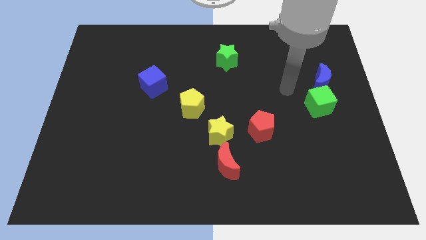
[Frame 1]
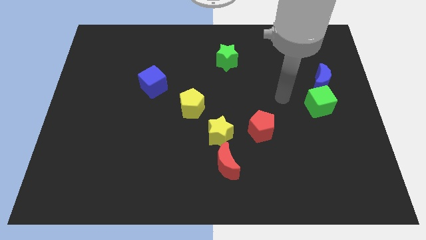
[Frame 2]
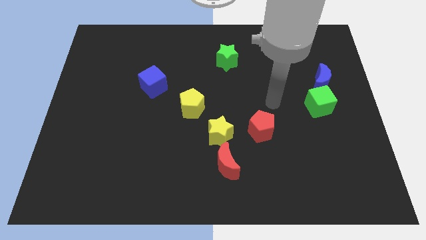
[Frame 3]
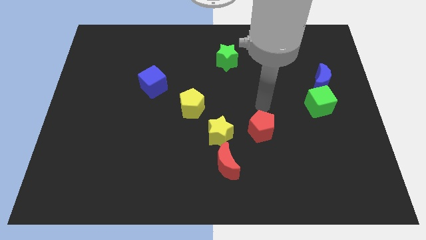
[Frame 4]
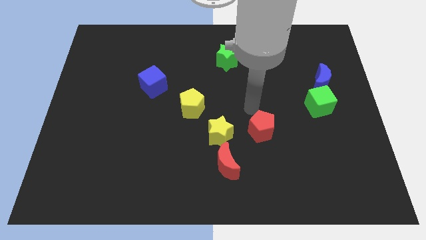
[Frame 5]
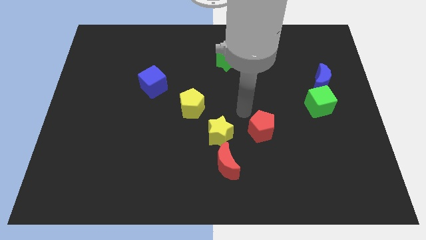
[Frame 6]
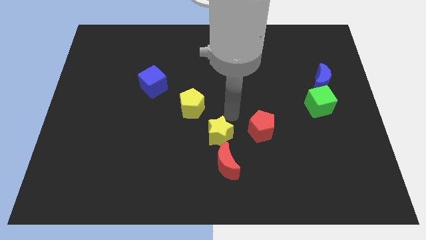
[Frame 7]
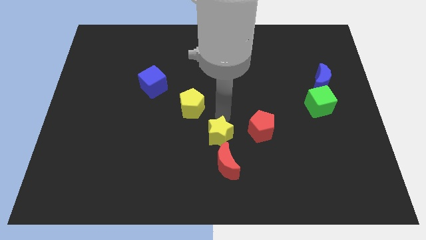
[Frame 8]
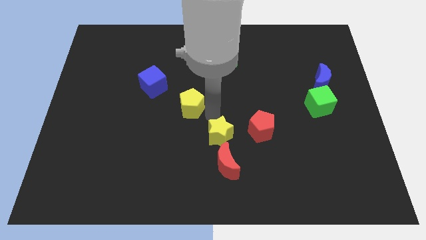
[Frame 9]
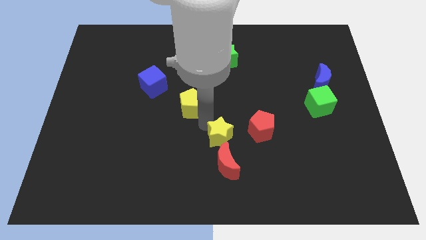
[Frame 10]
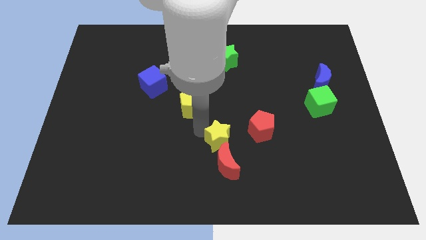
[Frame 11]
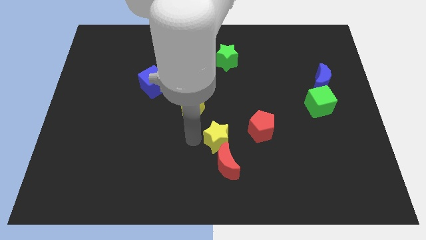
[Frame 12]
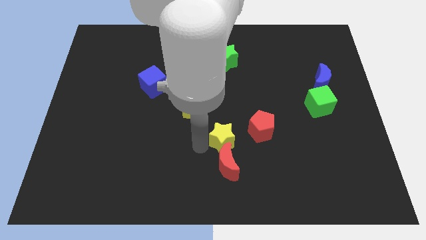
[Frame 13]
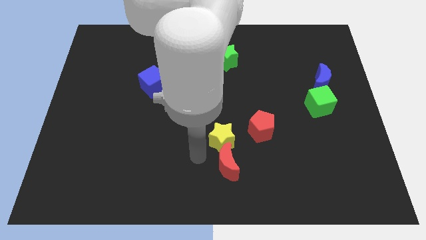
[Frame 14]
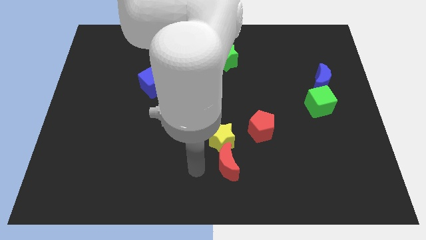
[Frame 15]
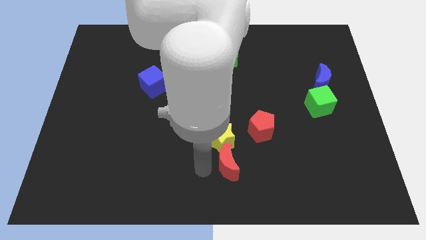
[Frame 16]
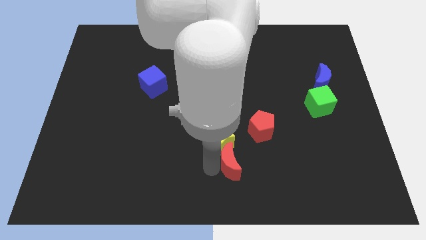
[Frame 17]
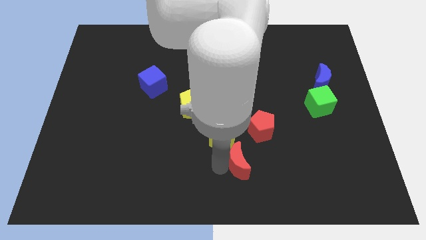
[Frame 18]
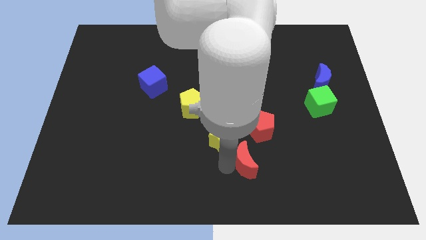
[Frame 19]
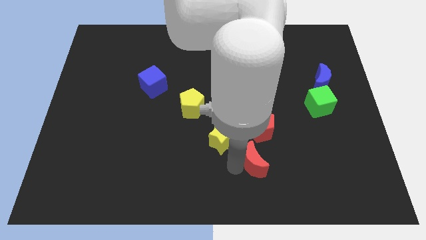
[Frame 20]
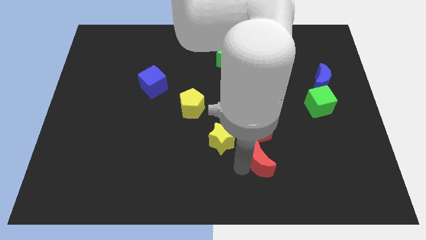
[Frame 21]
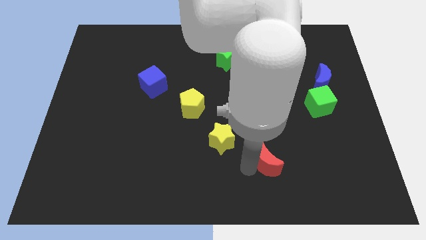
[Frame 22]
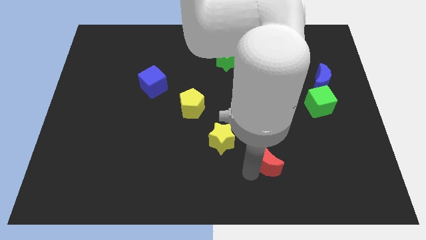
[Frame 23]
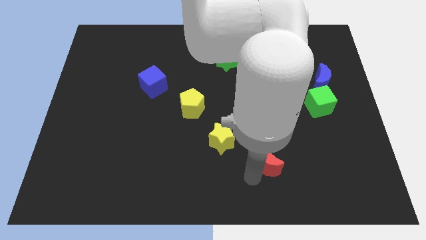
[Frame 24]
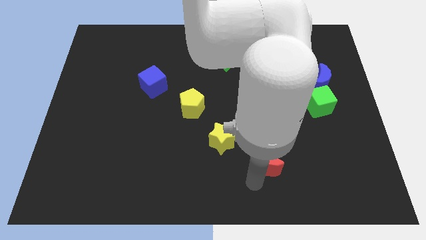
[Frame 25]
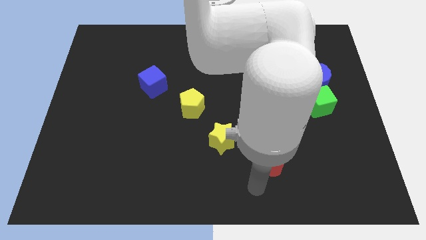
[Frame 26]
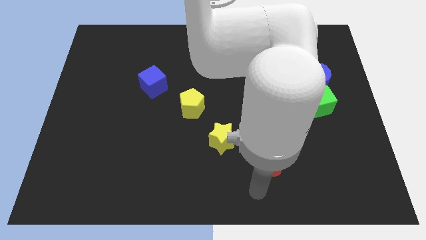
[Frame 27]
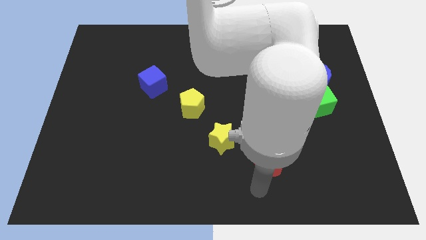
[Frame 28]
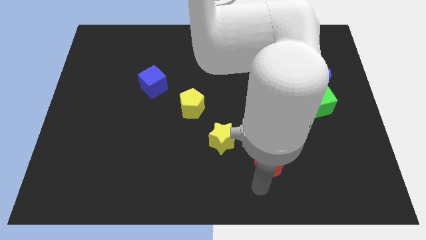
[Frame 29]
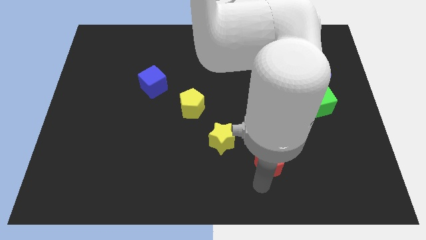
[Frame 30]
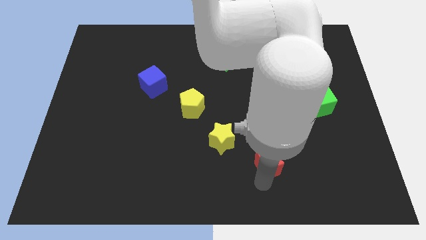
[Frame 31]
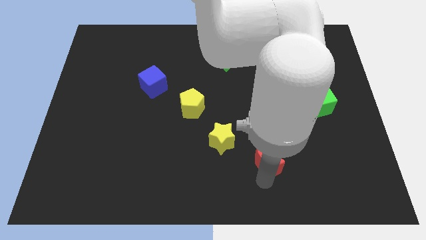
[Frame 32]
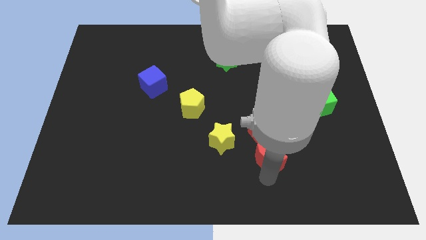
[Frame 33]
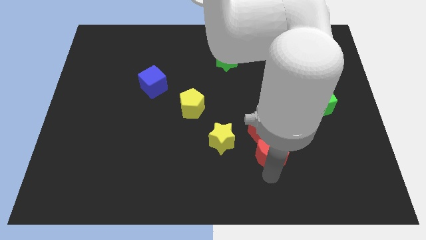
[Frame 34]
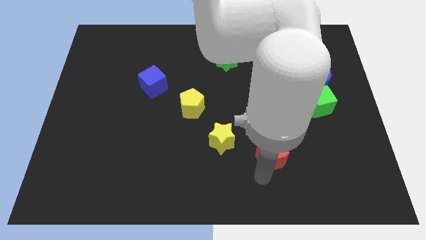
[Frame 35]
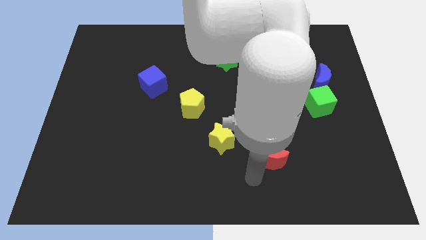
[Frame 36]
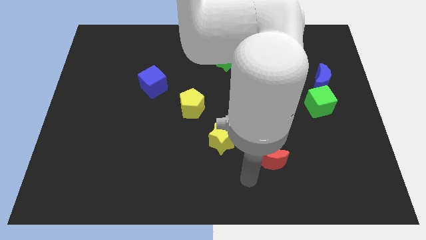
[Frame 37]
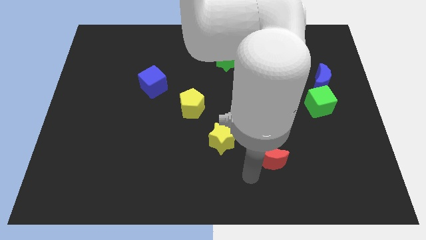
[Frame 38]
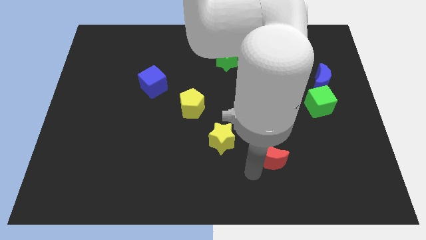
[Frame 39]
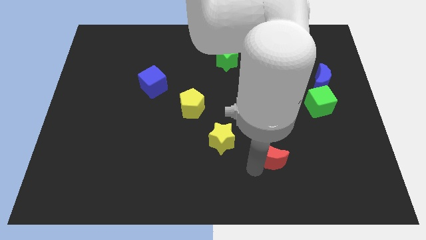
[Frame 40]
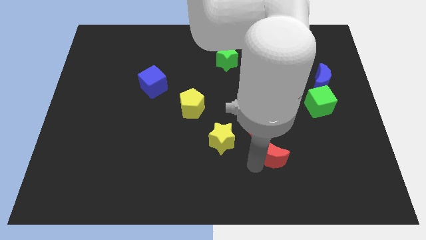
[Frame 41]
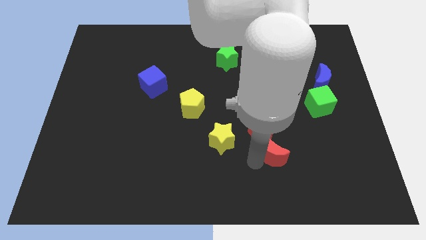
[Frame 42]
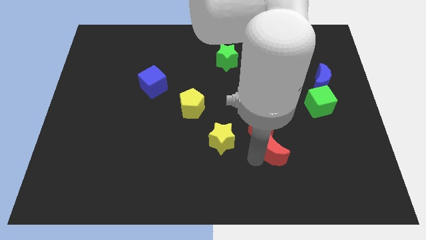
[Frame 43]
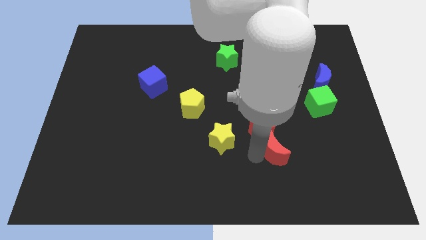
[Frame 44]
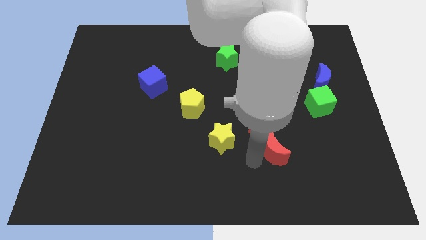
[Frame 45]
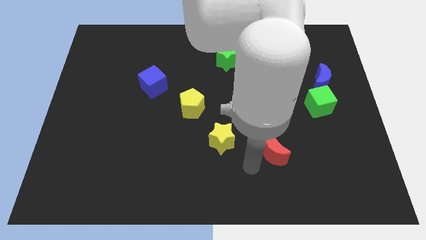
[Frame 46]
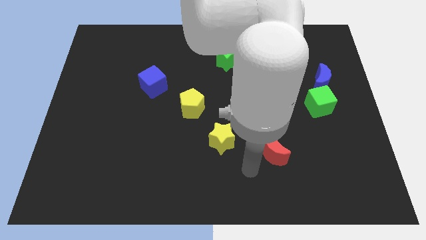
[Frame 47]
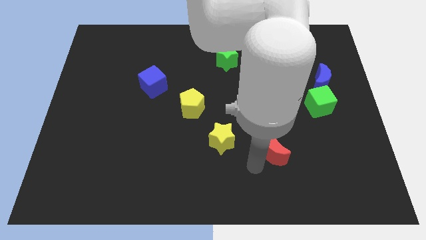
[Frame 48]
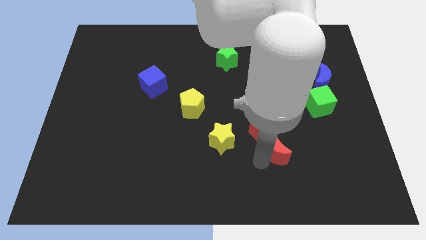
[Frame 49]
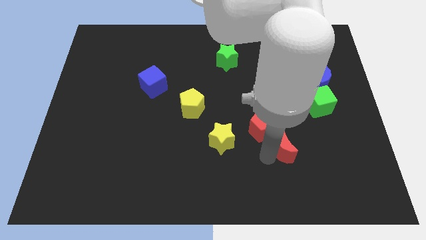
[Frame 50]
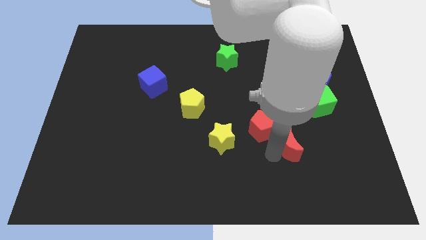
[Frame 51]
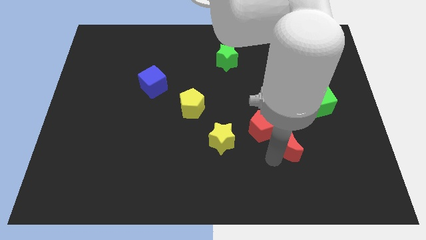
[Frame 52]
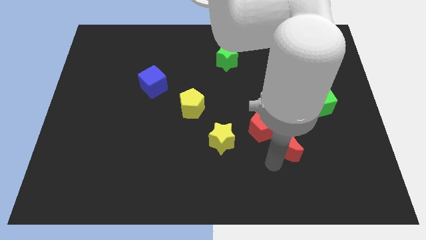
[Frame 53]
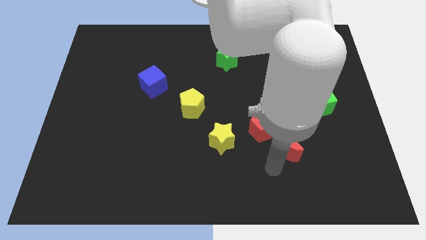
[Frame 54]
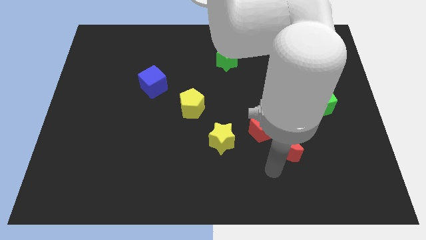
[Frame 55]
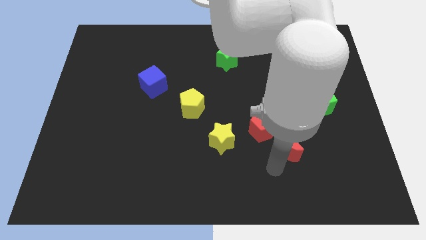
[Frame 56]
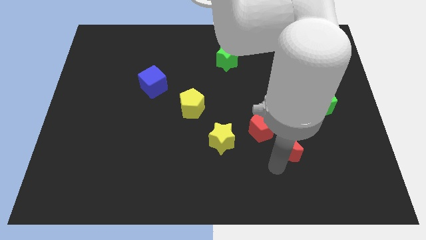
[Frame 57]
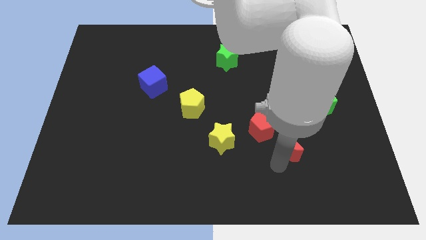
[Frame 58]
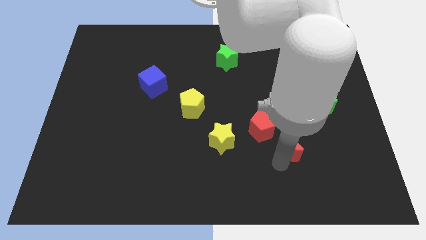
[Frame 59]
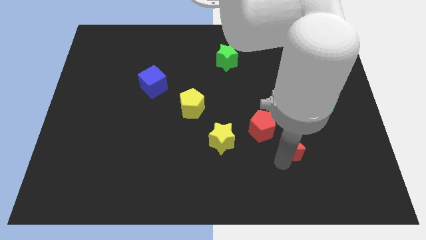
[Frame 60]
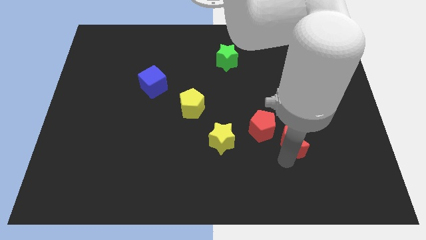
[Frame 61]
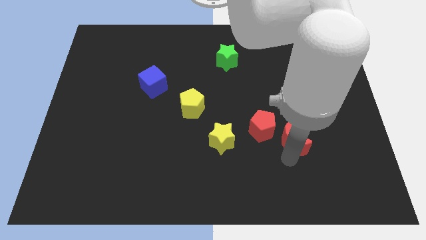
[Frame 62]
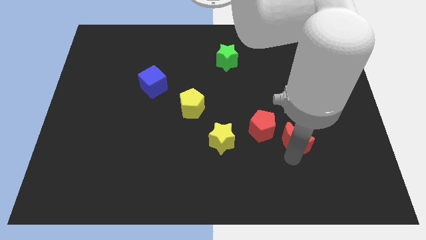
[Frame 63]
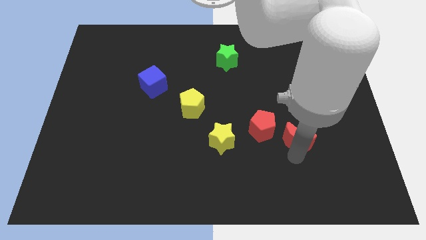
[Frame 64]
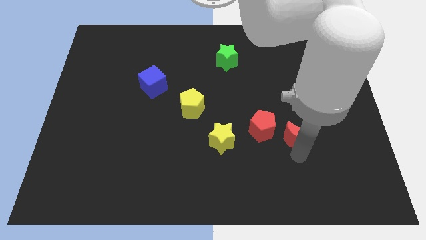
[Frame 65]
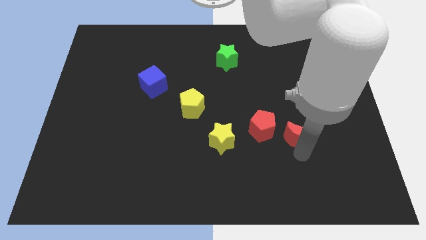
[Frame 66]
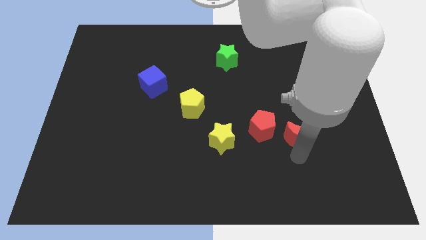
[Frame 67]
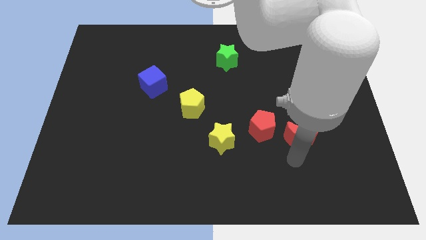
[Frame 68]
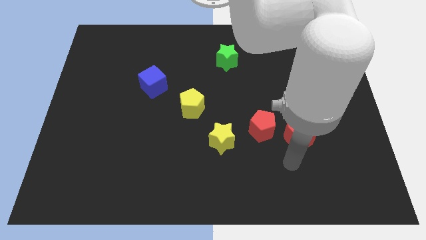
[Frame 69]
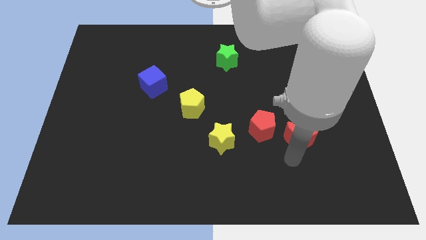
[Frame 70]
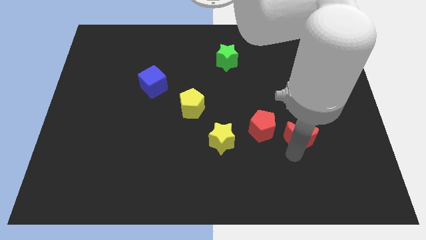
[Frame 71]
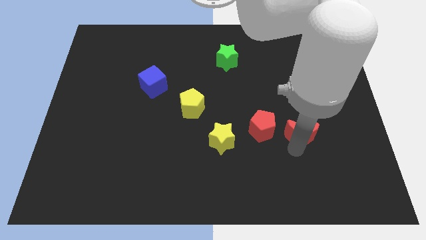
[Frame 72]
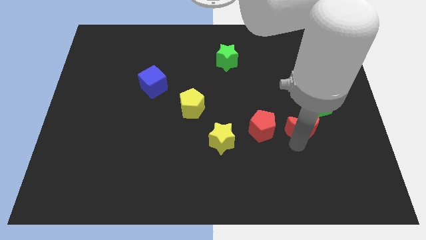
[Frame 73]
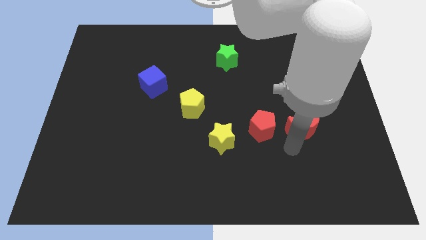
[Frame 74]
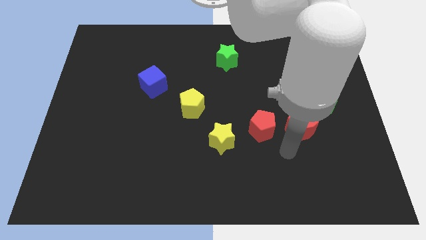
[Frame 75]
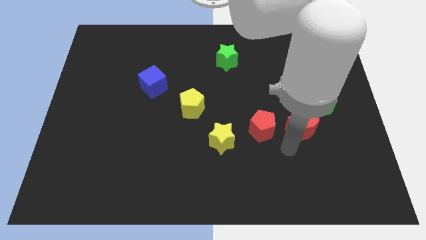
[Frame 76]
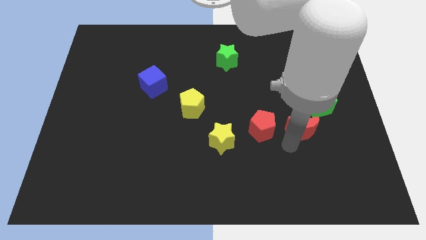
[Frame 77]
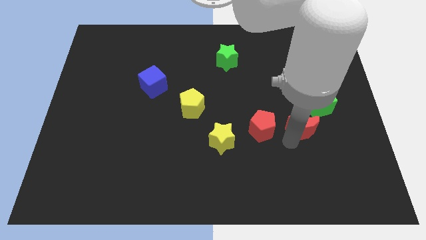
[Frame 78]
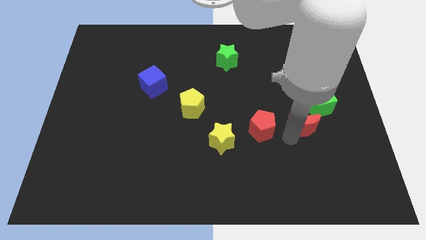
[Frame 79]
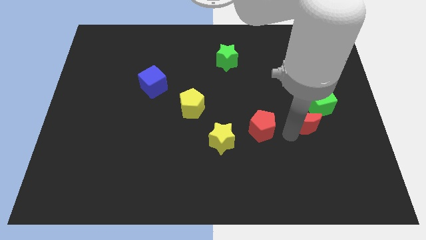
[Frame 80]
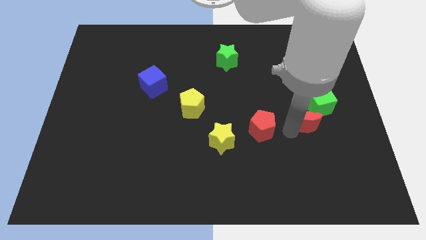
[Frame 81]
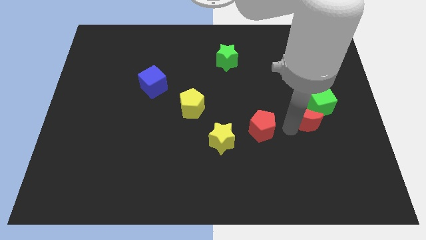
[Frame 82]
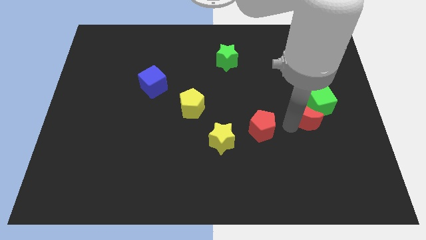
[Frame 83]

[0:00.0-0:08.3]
put the red moon close to the green cube
